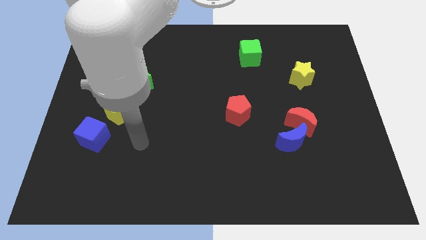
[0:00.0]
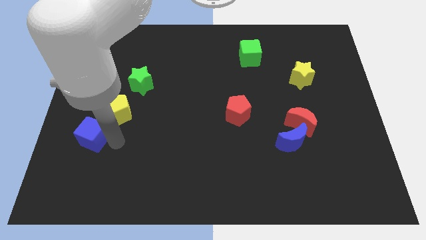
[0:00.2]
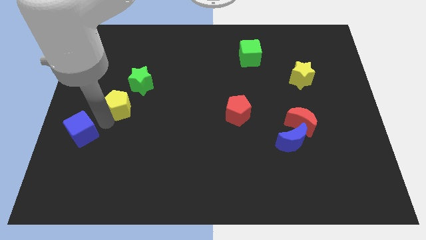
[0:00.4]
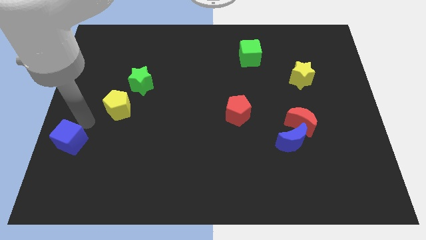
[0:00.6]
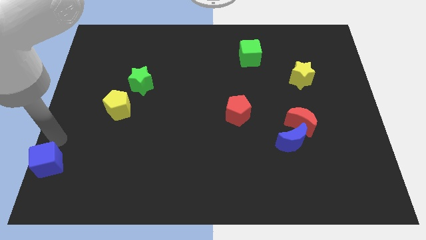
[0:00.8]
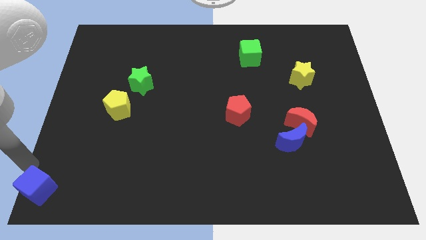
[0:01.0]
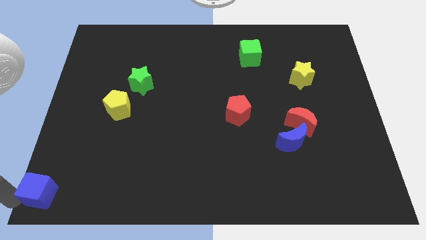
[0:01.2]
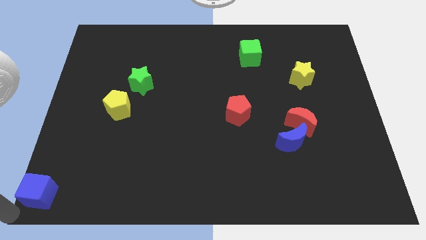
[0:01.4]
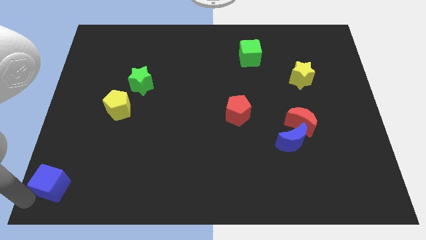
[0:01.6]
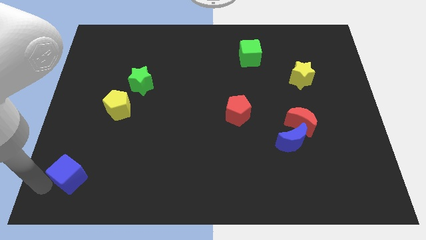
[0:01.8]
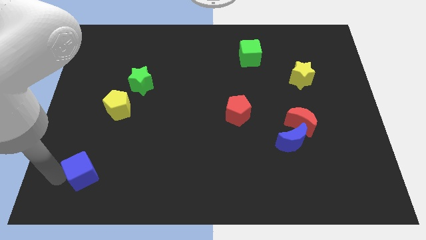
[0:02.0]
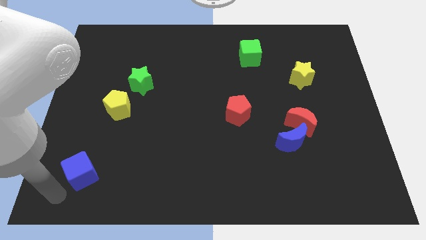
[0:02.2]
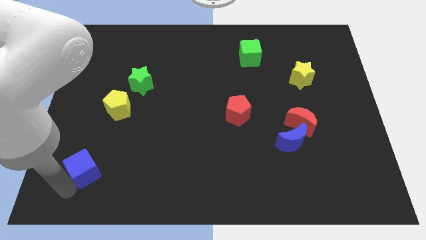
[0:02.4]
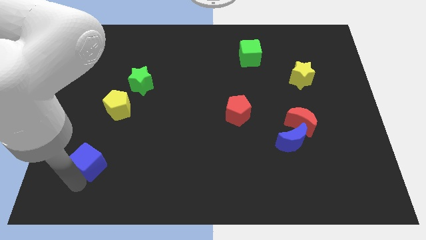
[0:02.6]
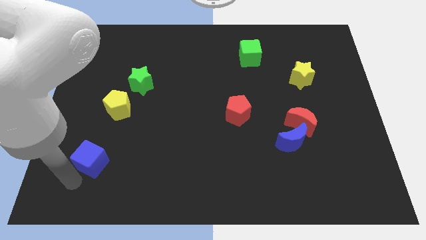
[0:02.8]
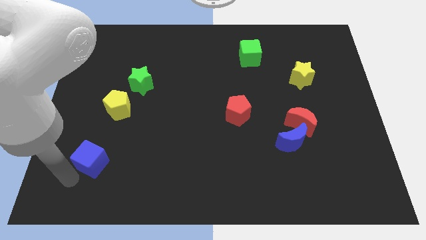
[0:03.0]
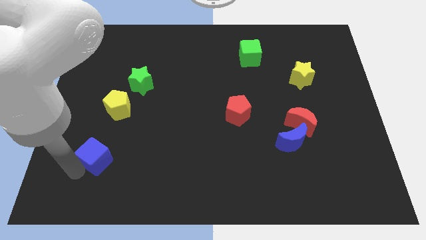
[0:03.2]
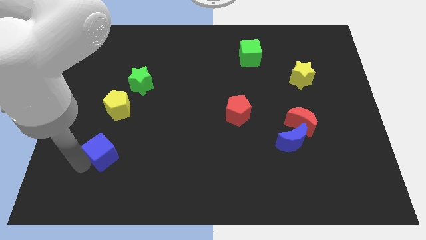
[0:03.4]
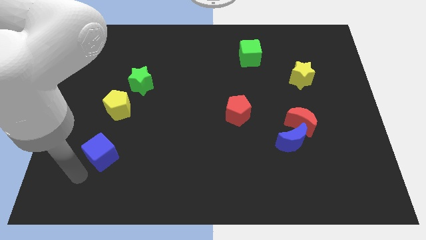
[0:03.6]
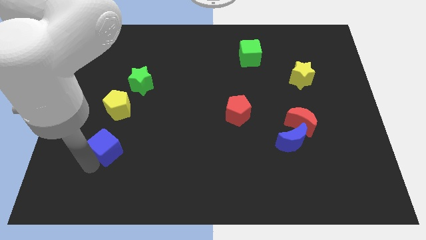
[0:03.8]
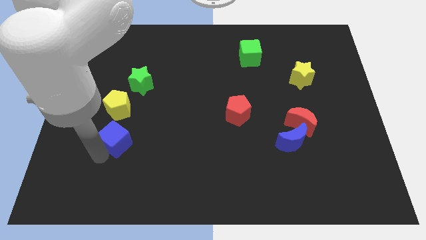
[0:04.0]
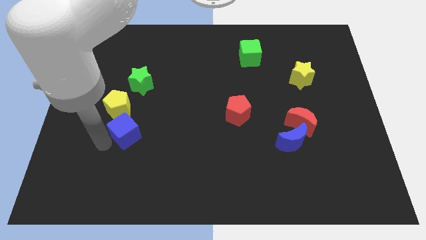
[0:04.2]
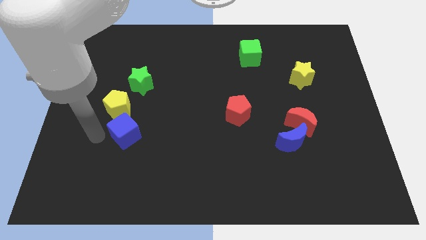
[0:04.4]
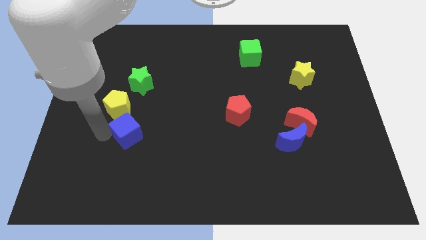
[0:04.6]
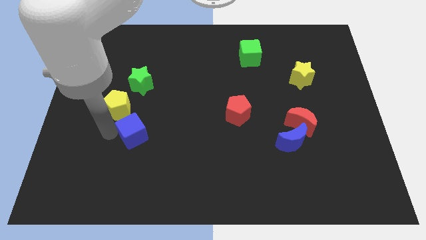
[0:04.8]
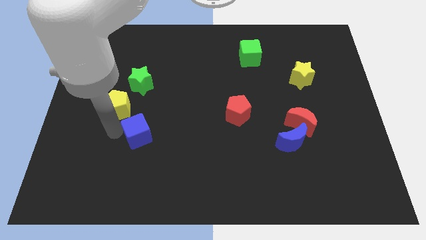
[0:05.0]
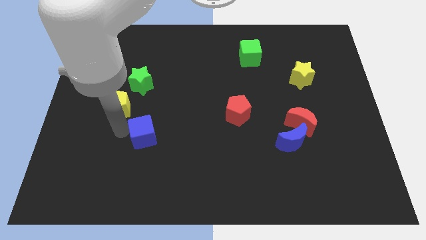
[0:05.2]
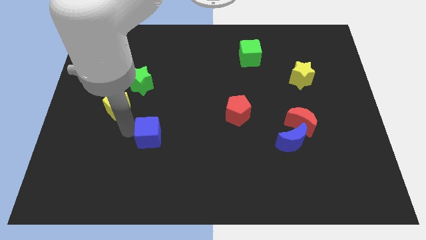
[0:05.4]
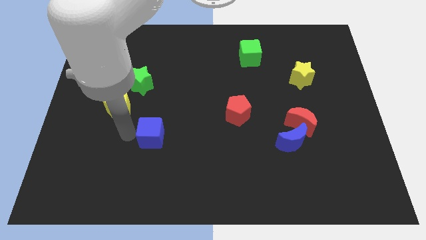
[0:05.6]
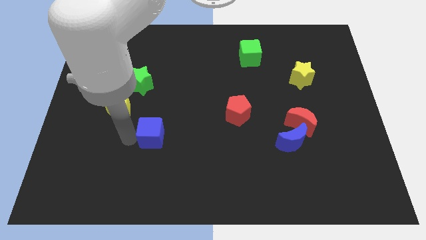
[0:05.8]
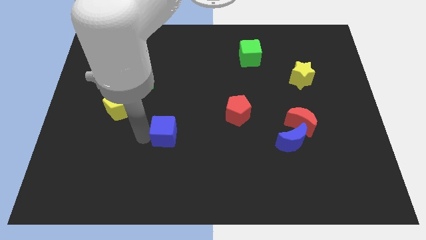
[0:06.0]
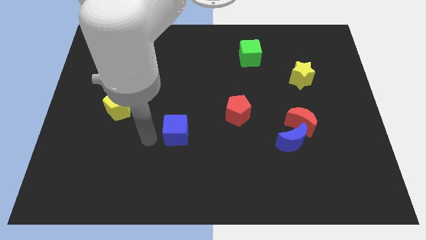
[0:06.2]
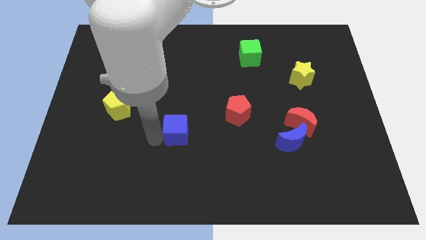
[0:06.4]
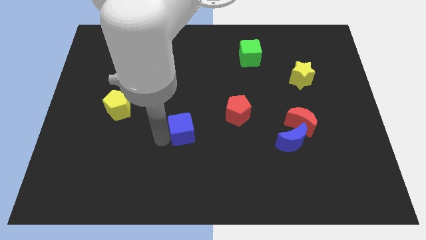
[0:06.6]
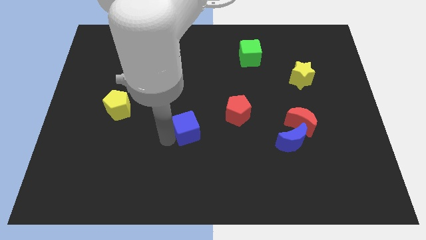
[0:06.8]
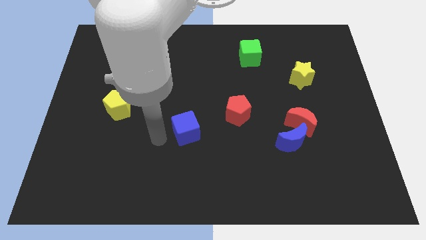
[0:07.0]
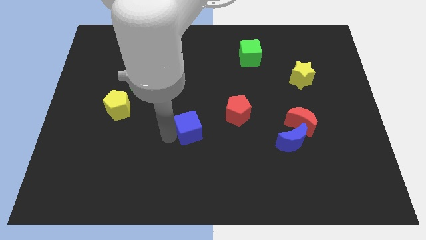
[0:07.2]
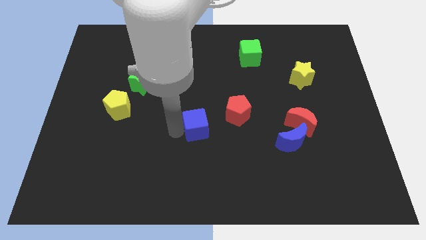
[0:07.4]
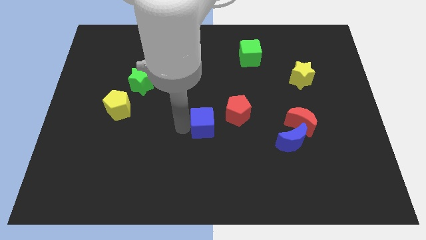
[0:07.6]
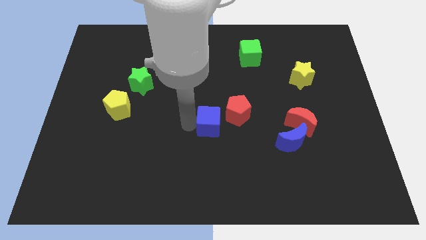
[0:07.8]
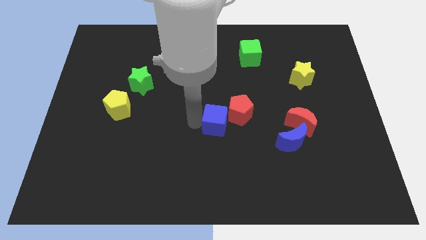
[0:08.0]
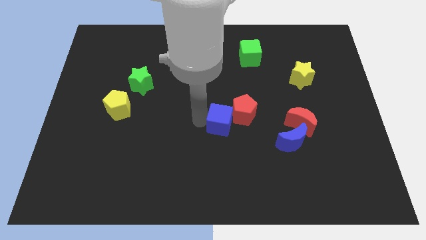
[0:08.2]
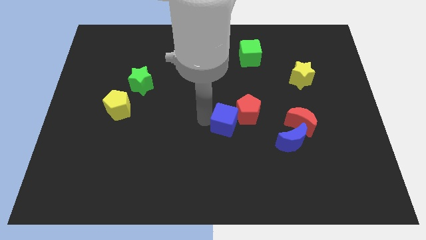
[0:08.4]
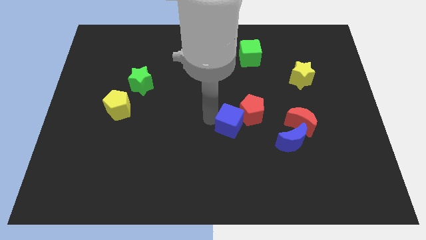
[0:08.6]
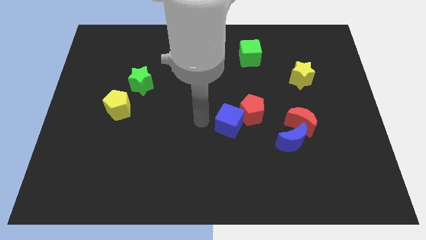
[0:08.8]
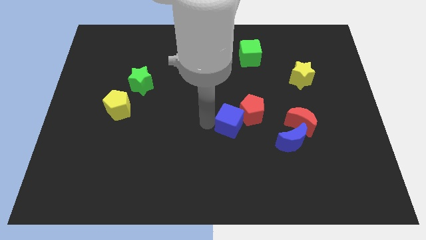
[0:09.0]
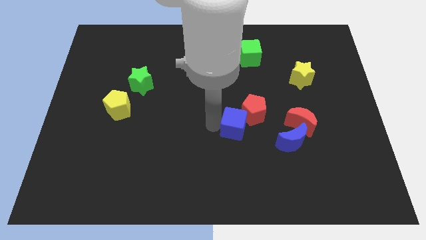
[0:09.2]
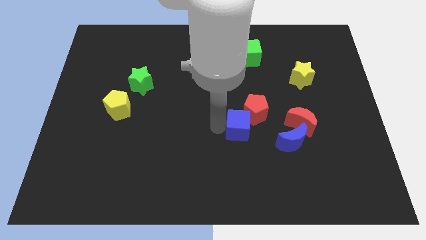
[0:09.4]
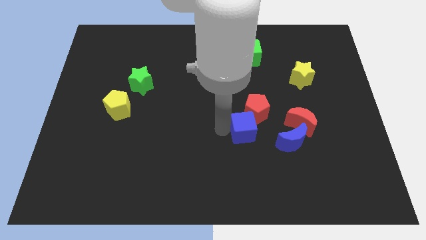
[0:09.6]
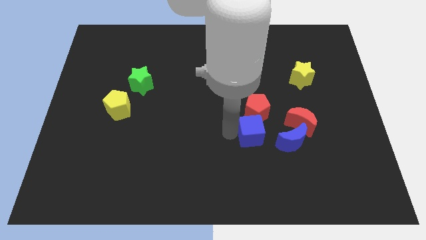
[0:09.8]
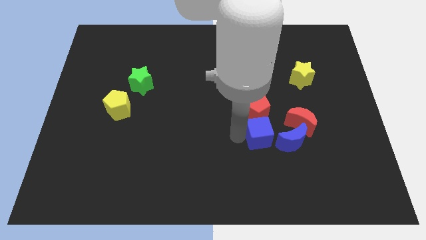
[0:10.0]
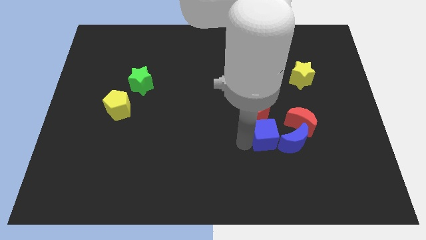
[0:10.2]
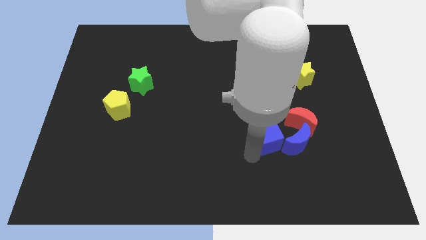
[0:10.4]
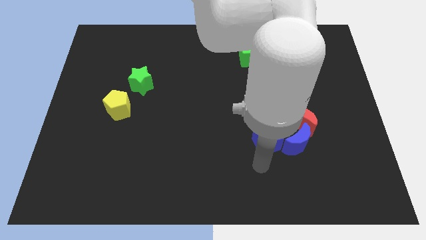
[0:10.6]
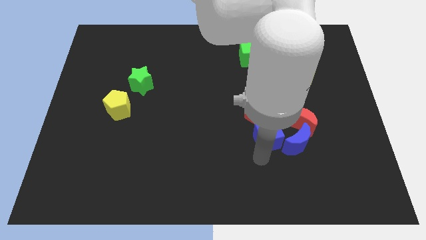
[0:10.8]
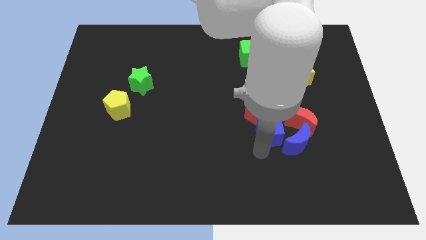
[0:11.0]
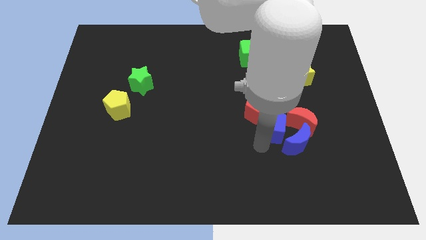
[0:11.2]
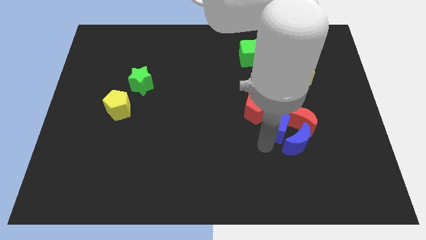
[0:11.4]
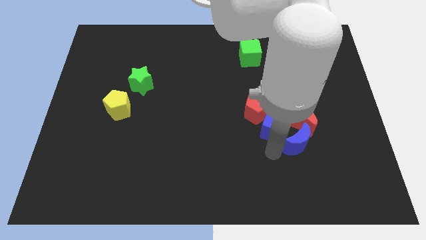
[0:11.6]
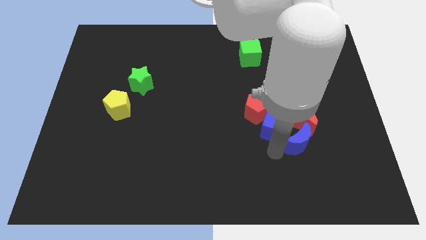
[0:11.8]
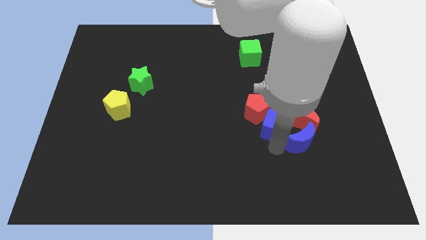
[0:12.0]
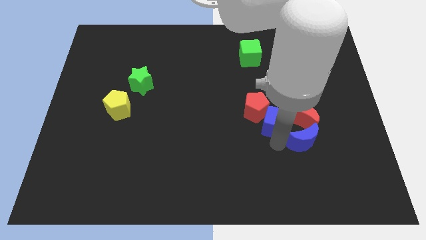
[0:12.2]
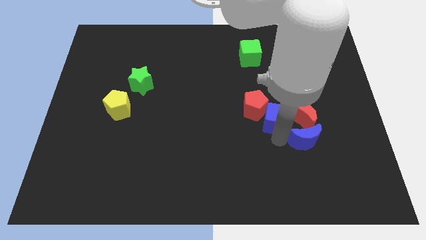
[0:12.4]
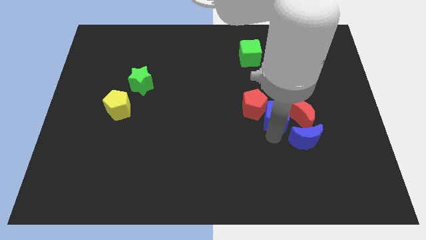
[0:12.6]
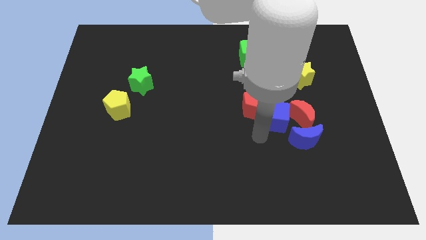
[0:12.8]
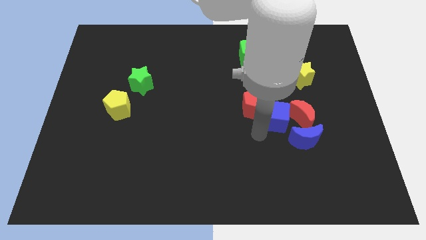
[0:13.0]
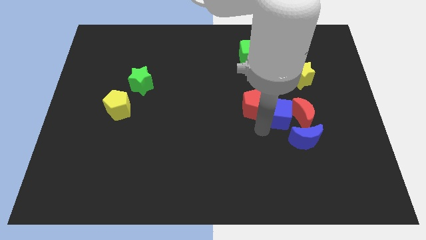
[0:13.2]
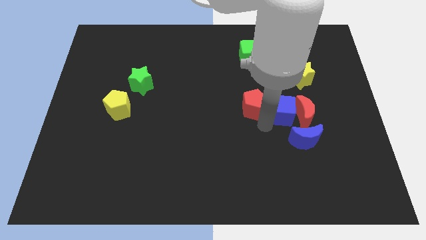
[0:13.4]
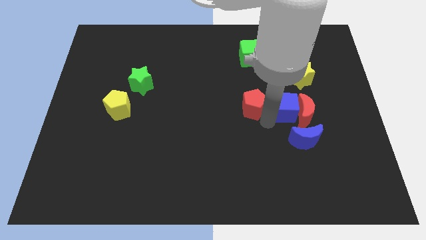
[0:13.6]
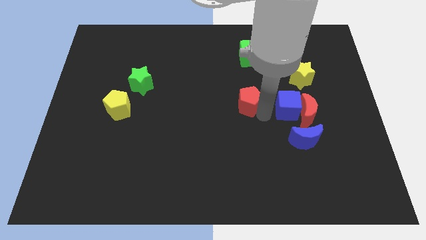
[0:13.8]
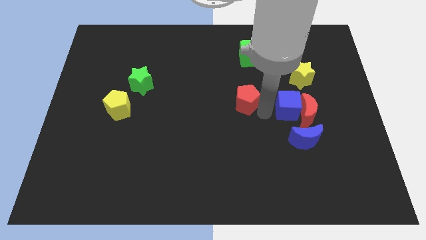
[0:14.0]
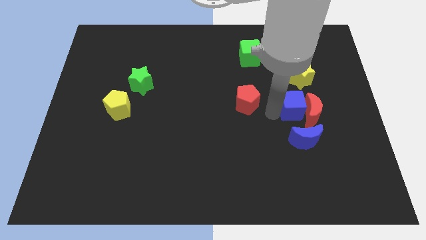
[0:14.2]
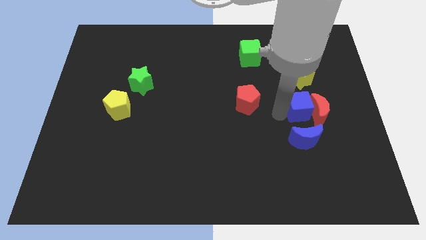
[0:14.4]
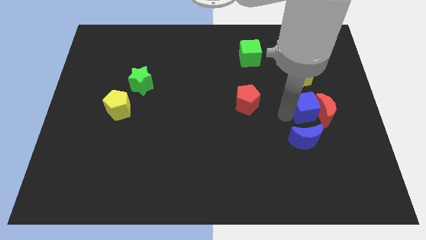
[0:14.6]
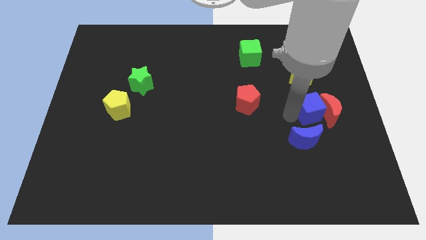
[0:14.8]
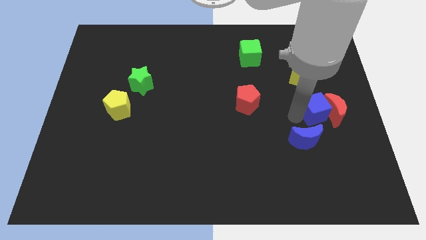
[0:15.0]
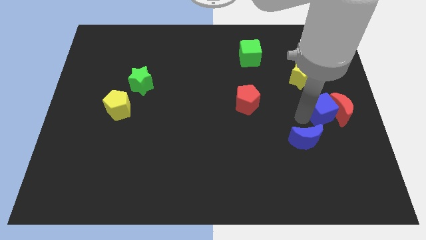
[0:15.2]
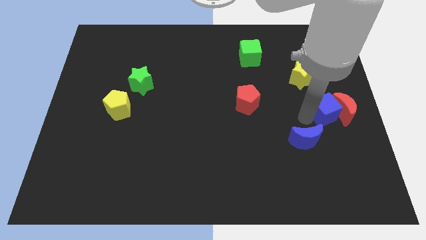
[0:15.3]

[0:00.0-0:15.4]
slide the blue cube to the right side of the board
